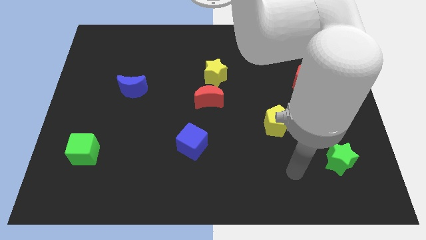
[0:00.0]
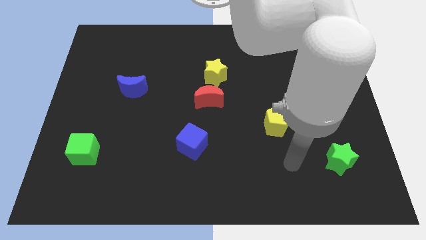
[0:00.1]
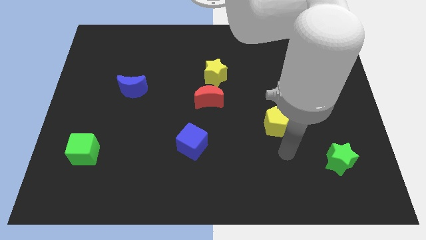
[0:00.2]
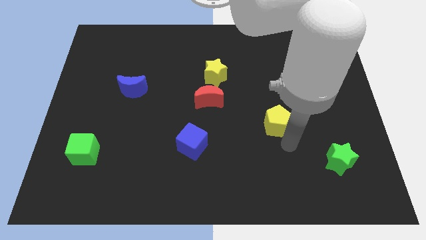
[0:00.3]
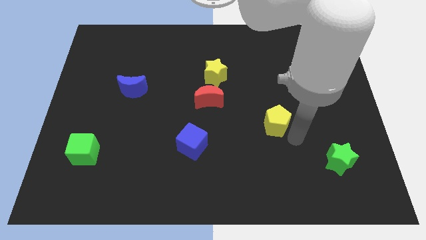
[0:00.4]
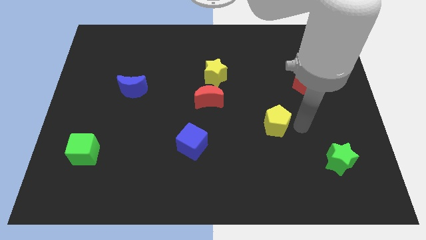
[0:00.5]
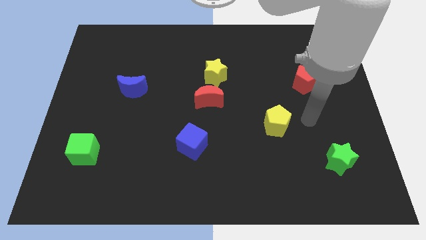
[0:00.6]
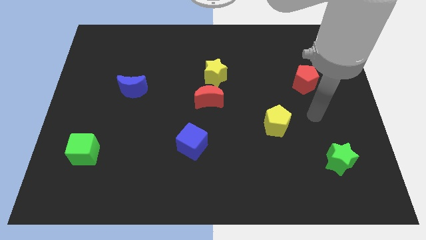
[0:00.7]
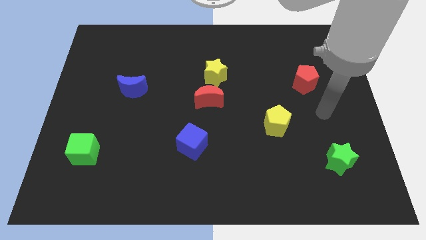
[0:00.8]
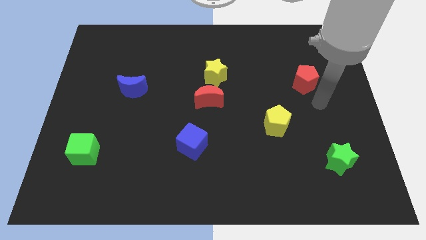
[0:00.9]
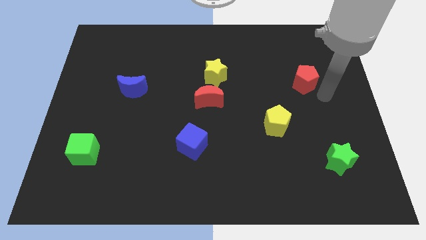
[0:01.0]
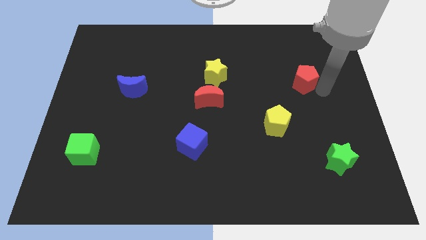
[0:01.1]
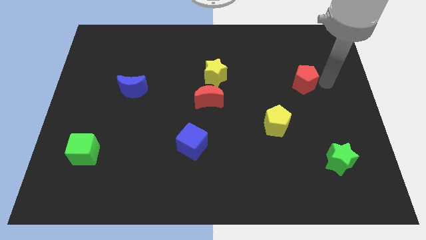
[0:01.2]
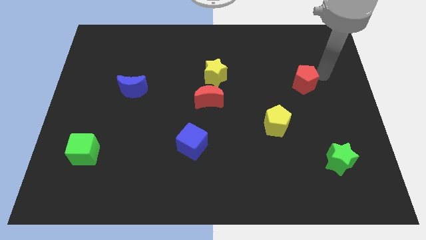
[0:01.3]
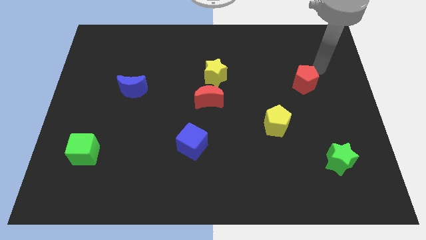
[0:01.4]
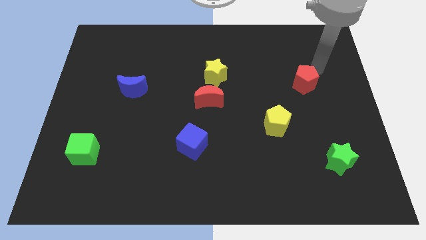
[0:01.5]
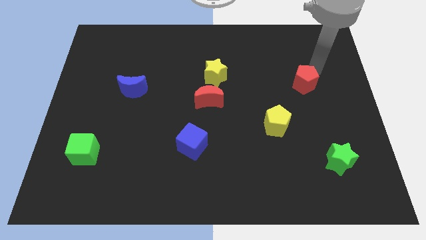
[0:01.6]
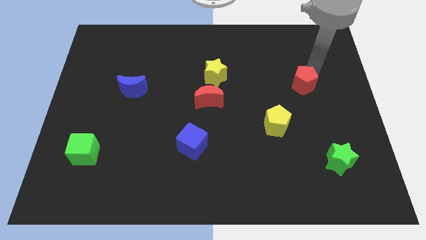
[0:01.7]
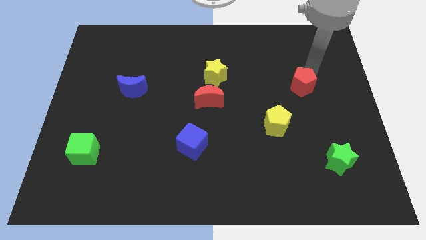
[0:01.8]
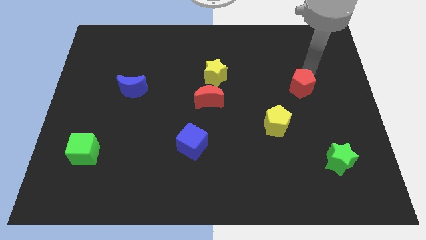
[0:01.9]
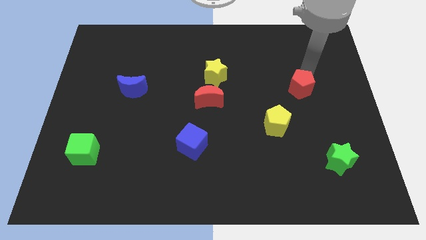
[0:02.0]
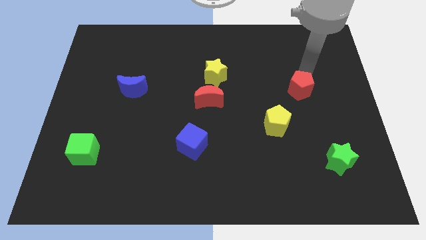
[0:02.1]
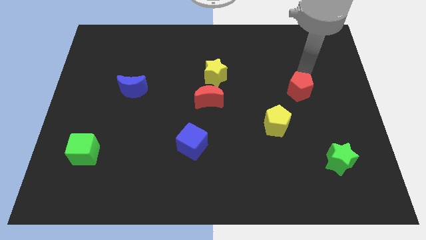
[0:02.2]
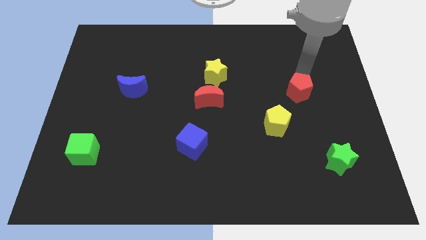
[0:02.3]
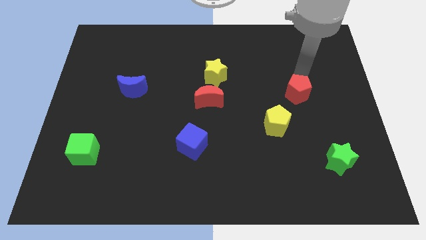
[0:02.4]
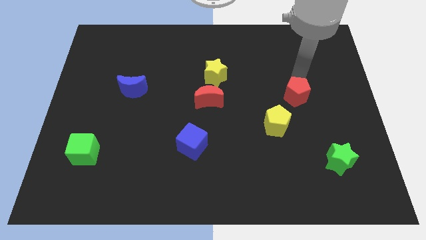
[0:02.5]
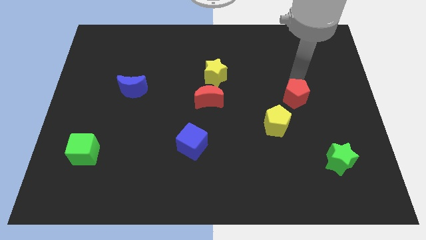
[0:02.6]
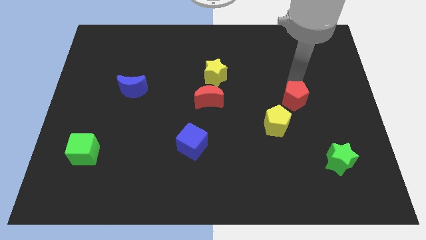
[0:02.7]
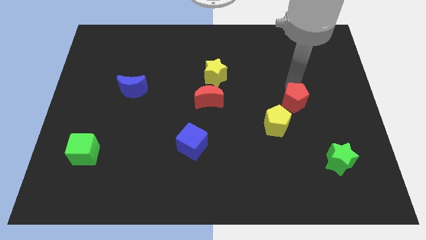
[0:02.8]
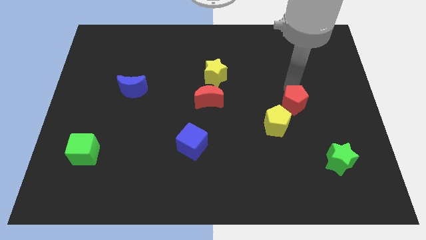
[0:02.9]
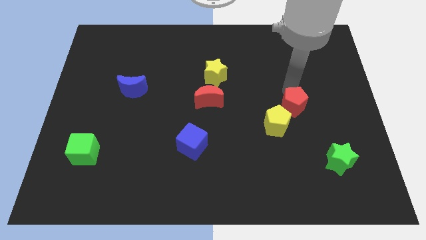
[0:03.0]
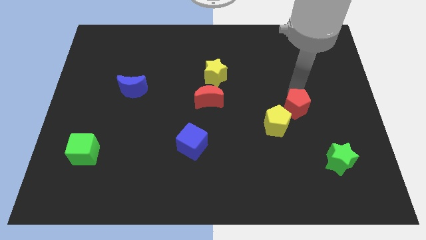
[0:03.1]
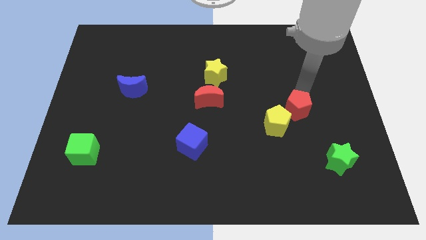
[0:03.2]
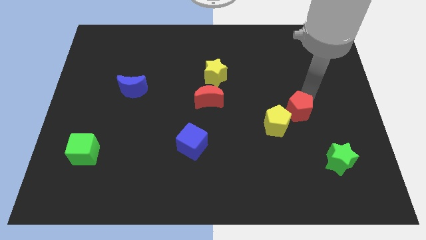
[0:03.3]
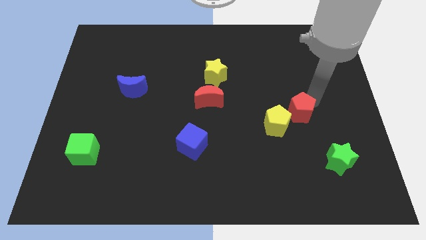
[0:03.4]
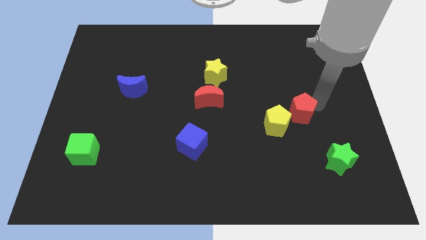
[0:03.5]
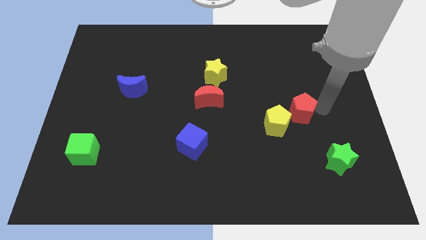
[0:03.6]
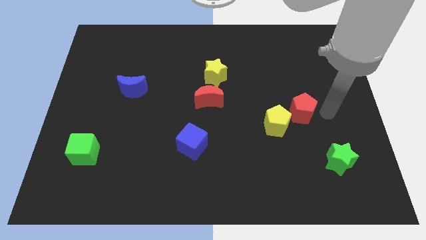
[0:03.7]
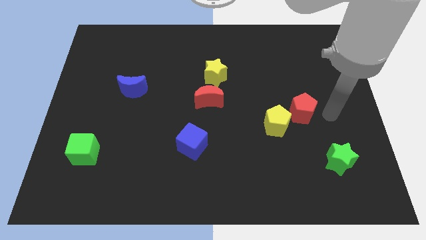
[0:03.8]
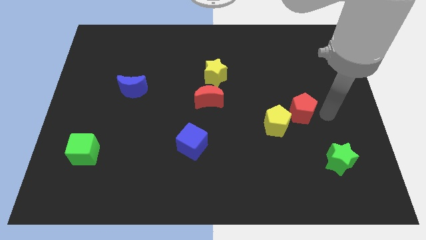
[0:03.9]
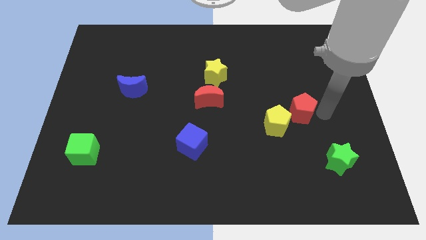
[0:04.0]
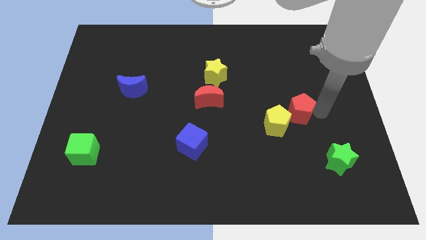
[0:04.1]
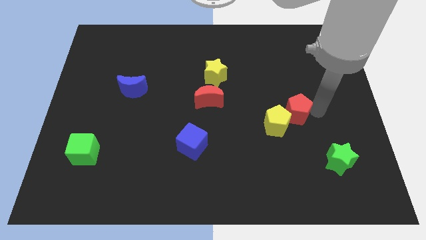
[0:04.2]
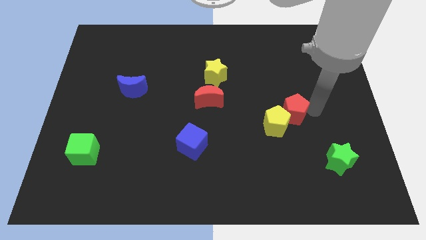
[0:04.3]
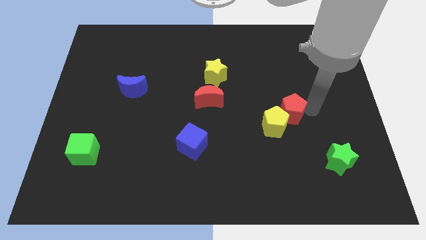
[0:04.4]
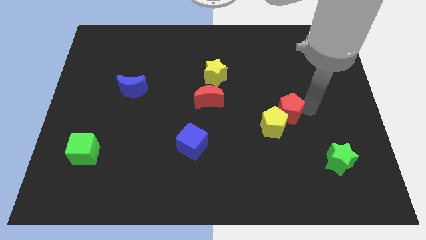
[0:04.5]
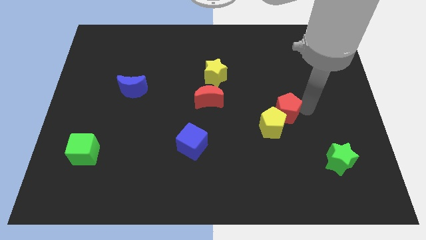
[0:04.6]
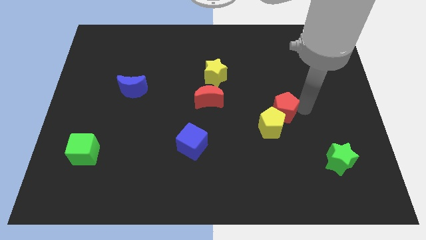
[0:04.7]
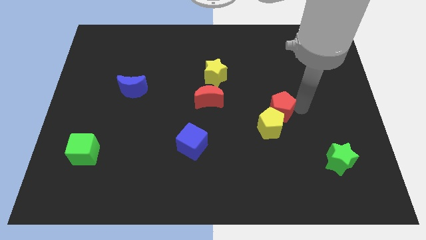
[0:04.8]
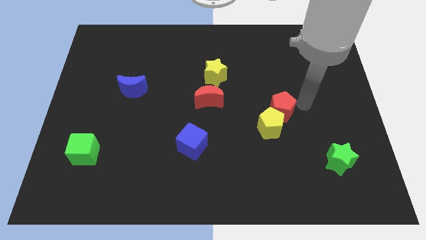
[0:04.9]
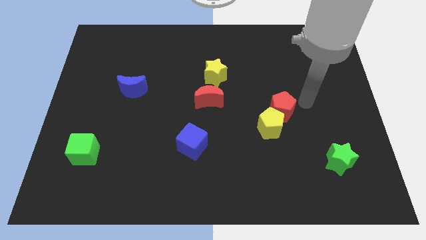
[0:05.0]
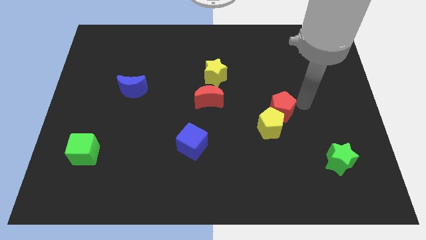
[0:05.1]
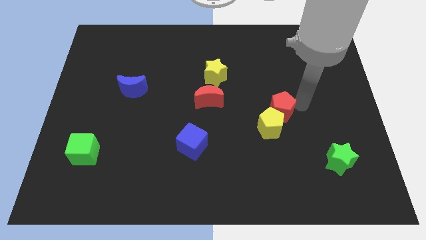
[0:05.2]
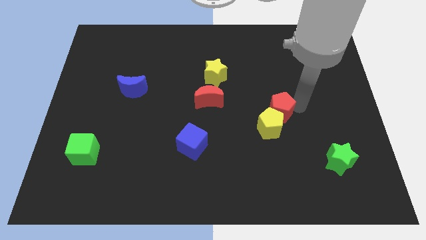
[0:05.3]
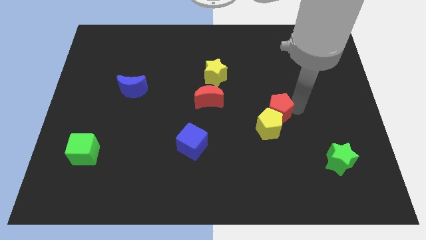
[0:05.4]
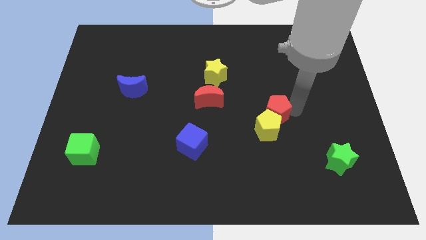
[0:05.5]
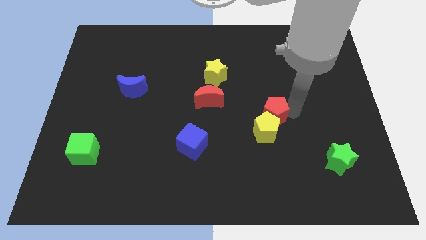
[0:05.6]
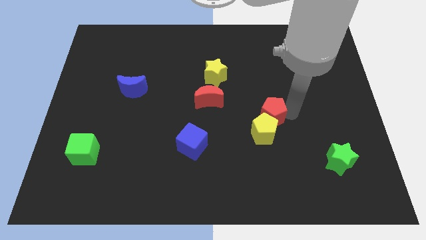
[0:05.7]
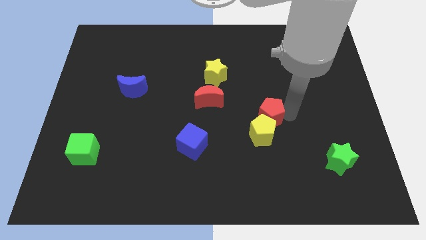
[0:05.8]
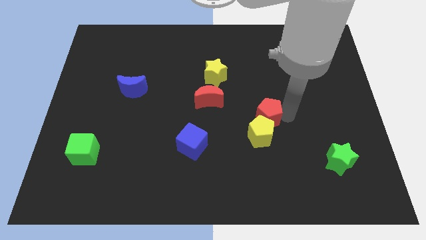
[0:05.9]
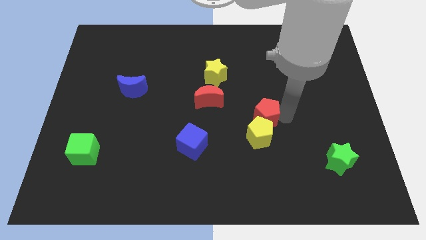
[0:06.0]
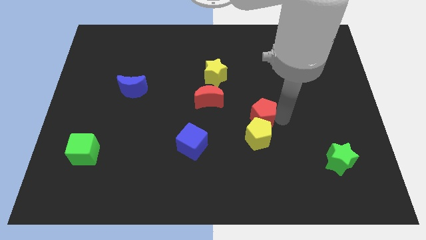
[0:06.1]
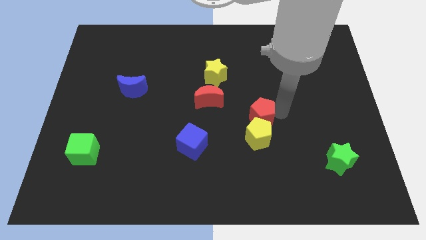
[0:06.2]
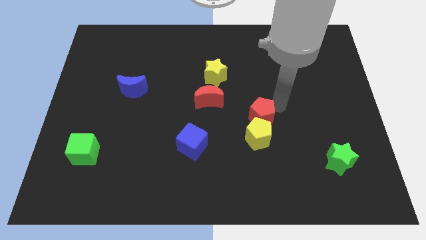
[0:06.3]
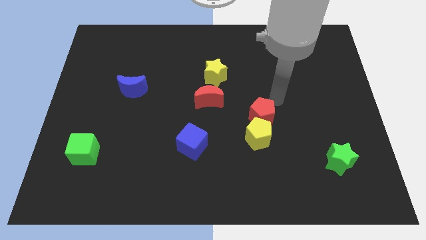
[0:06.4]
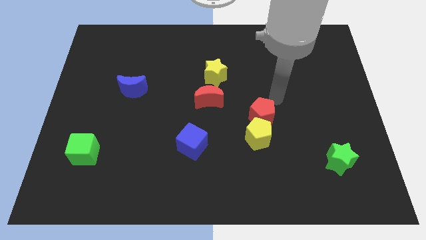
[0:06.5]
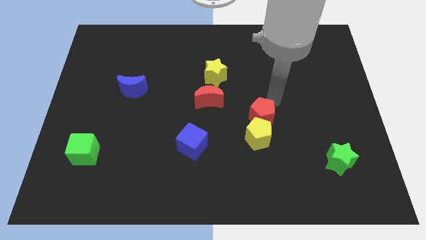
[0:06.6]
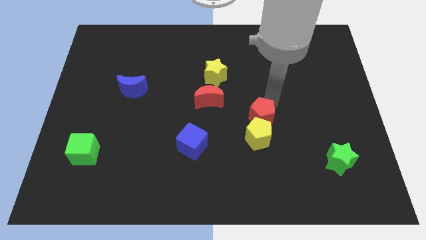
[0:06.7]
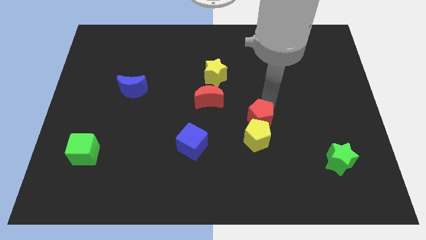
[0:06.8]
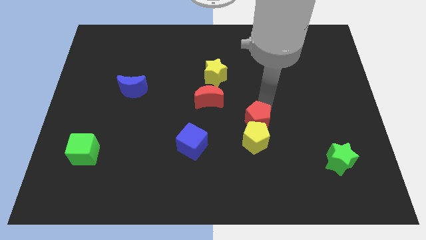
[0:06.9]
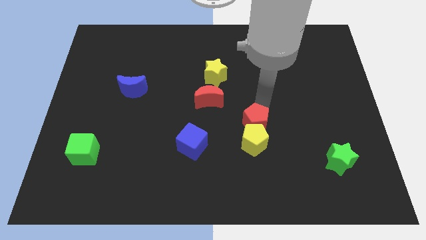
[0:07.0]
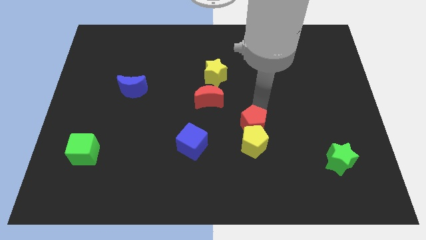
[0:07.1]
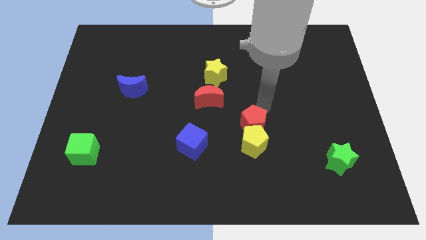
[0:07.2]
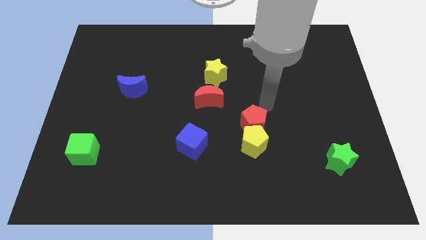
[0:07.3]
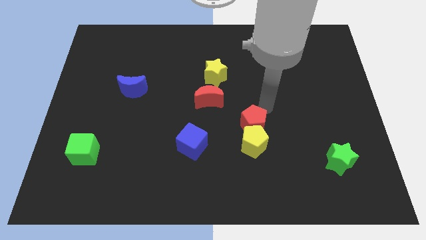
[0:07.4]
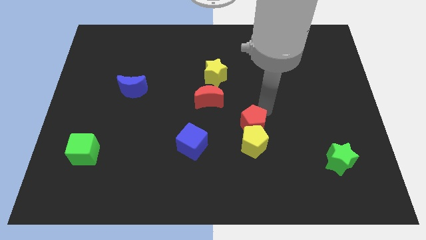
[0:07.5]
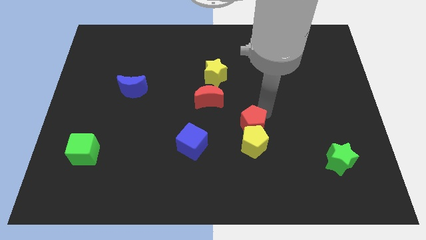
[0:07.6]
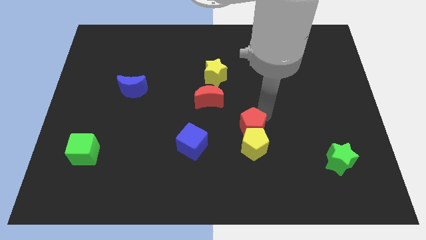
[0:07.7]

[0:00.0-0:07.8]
slide the red pentagon just right of the blue cube
